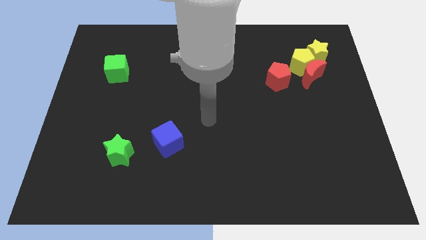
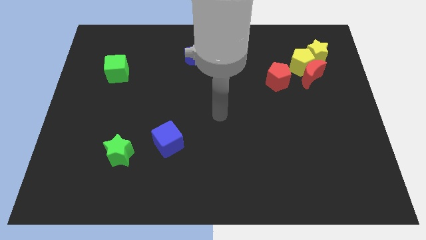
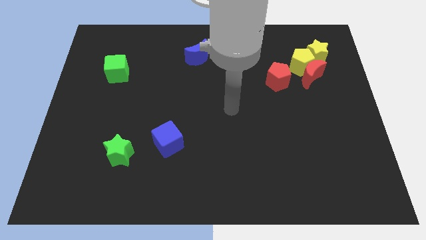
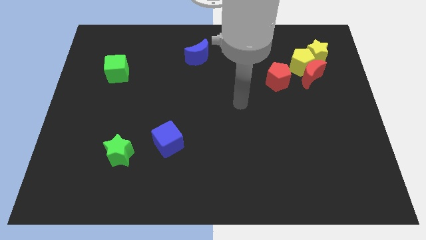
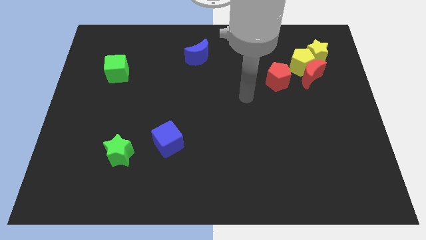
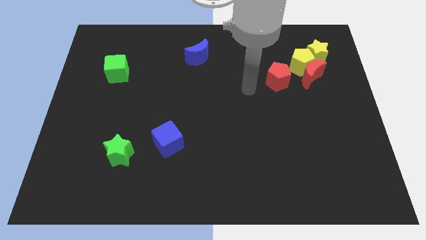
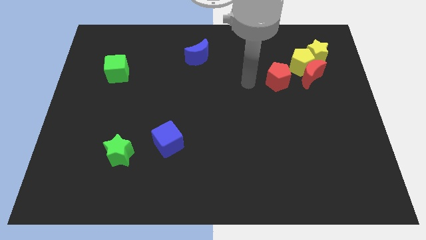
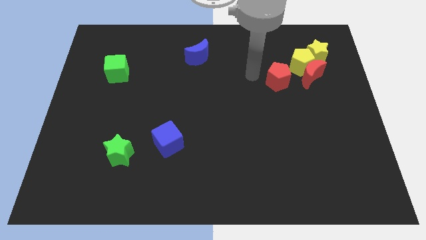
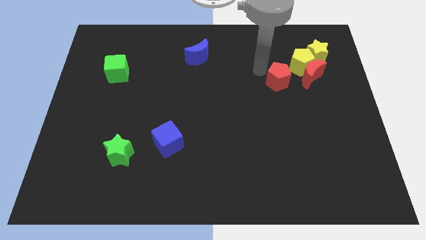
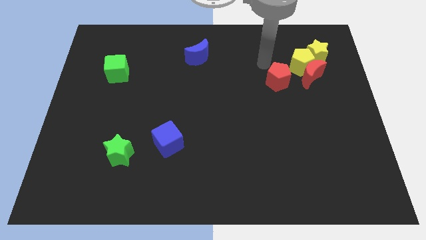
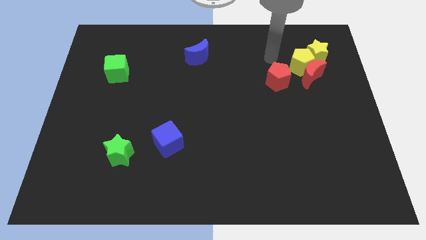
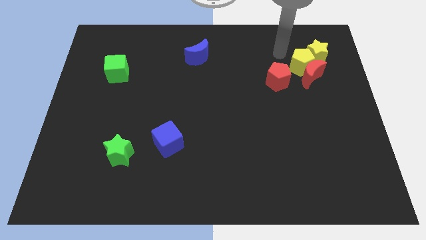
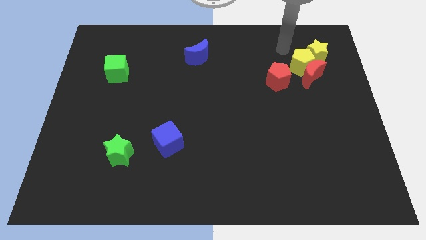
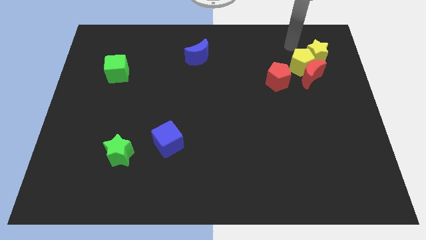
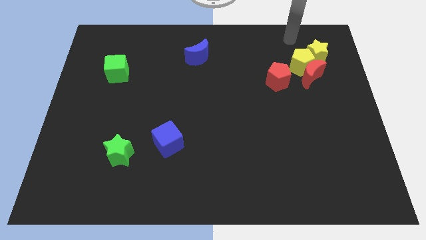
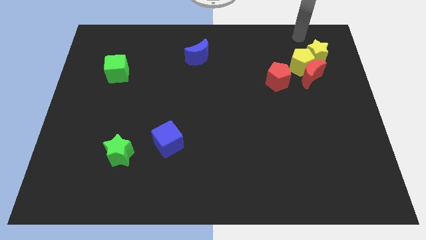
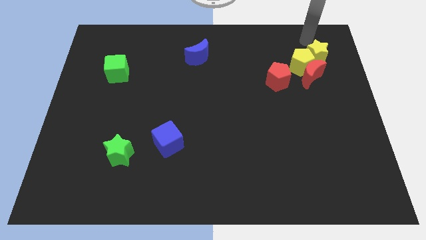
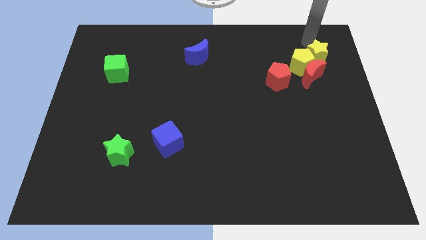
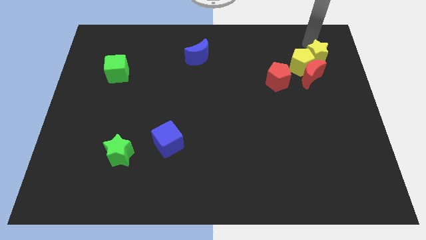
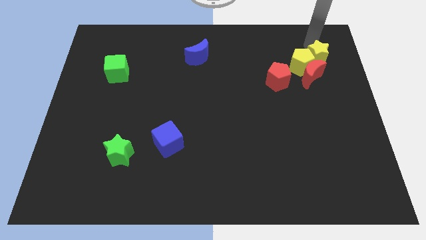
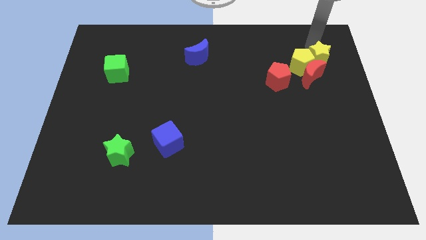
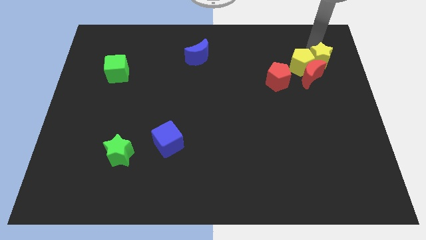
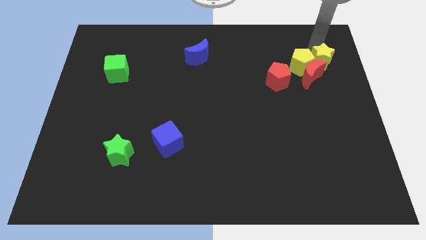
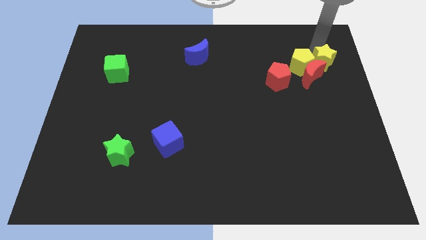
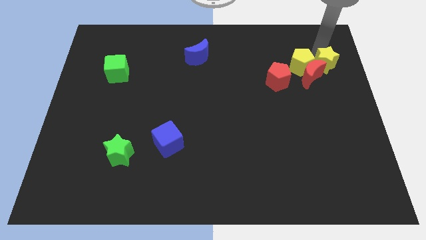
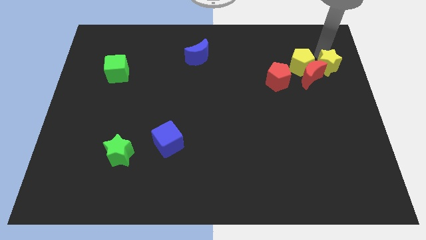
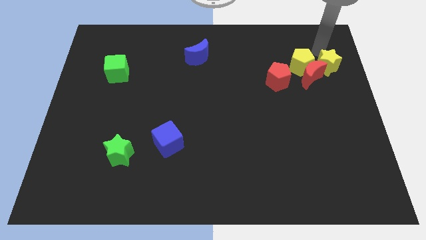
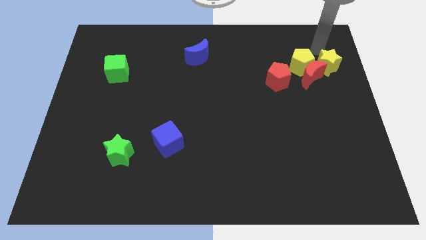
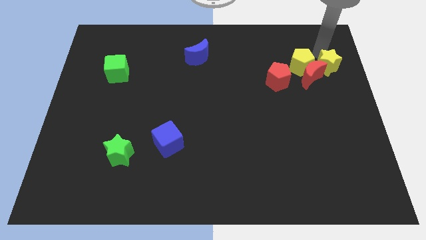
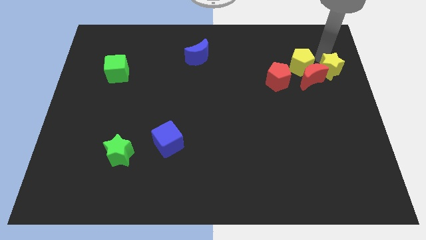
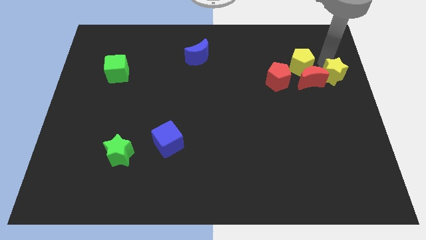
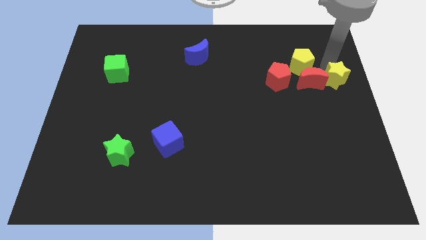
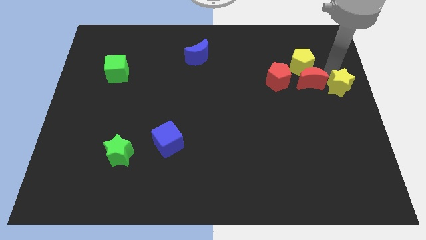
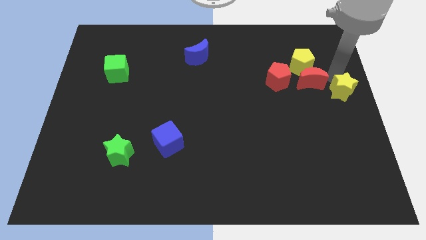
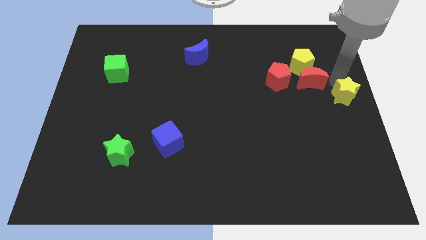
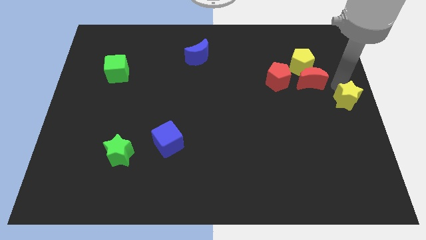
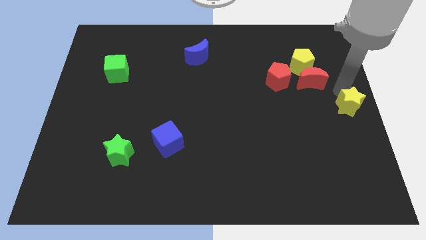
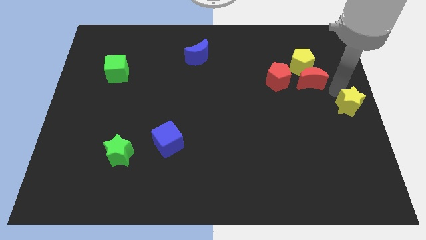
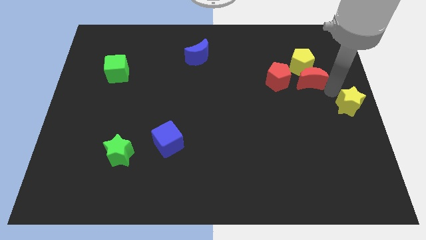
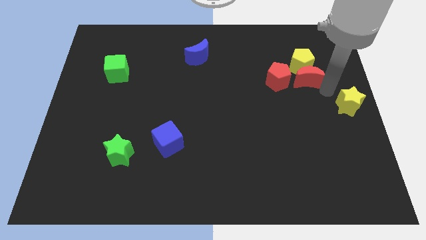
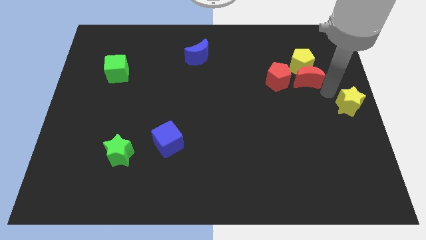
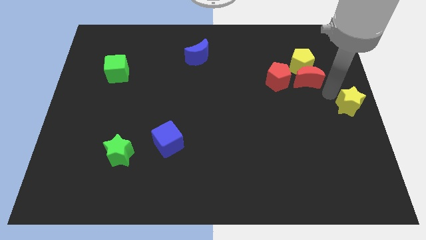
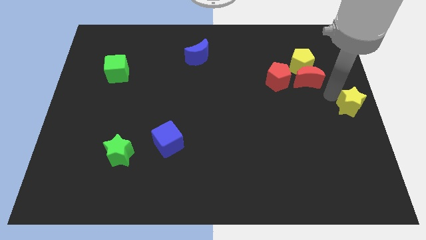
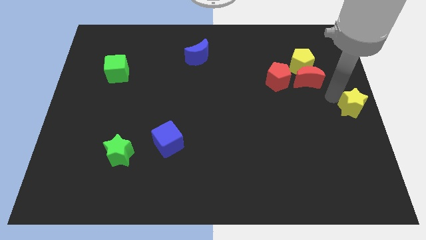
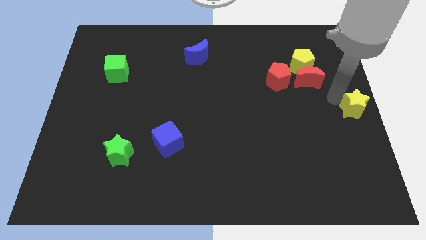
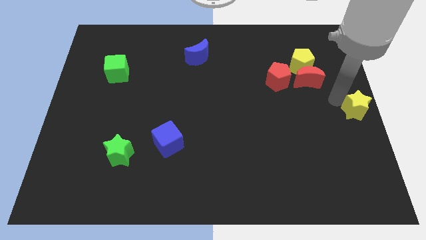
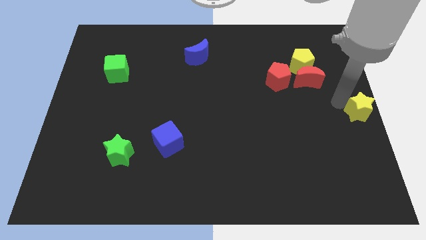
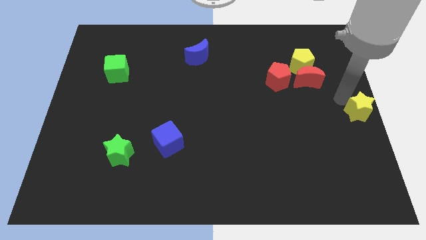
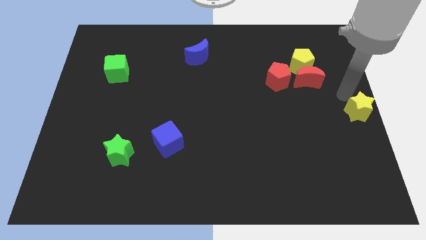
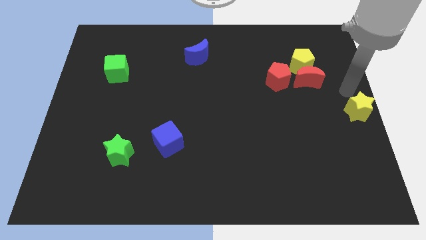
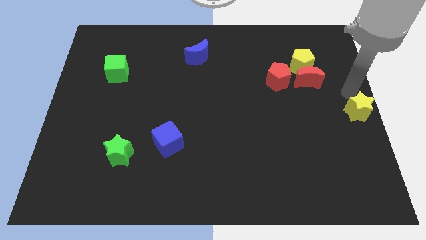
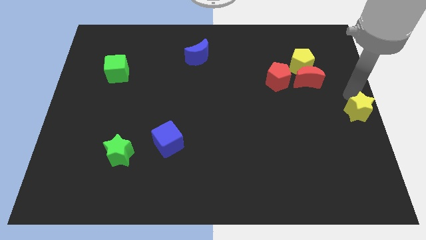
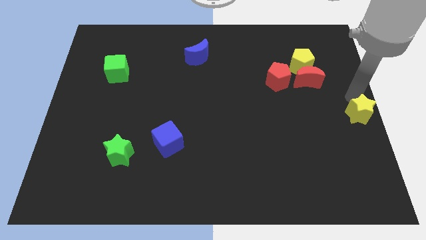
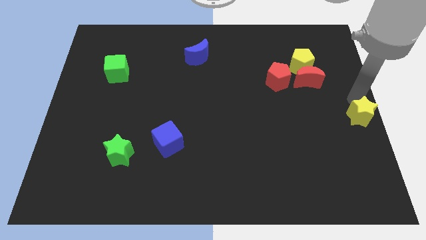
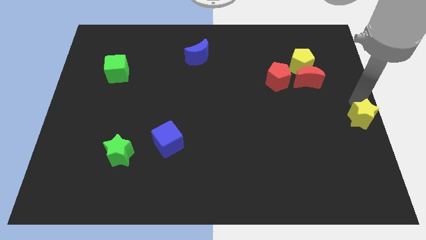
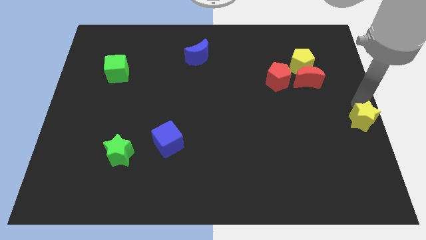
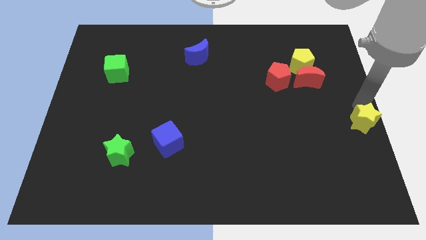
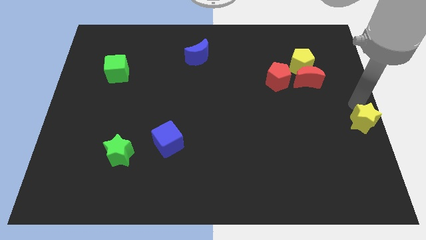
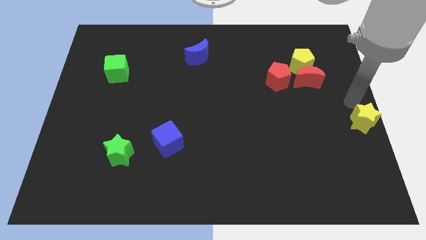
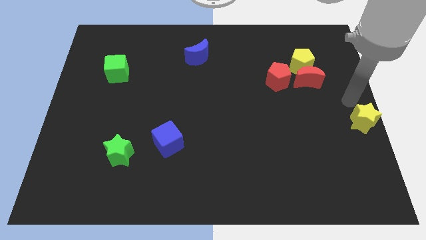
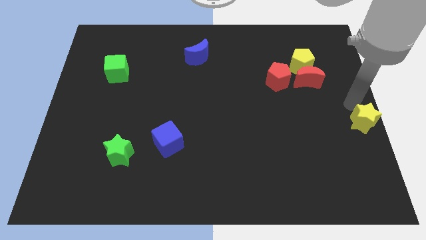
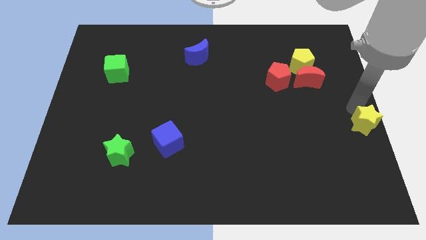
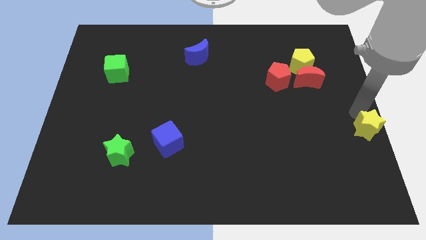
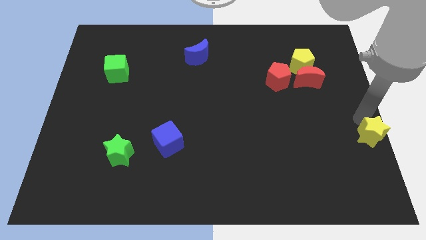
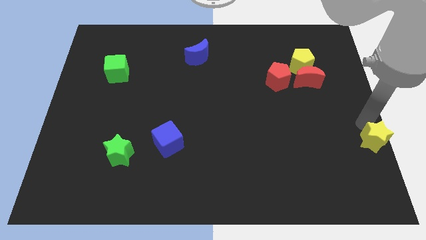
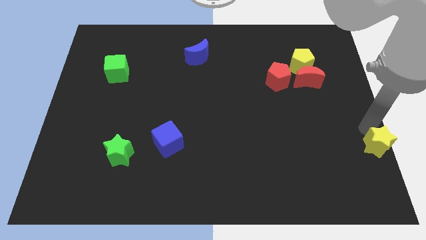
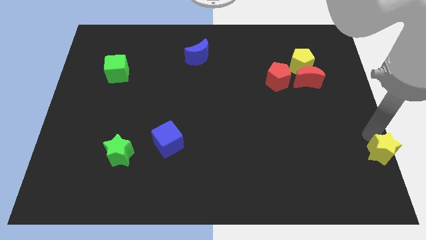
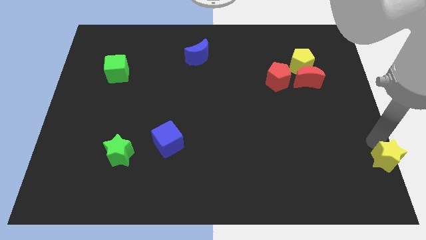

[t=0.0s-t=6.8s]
move the yellow star to the bottom right of the board
